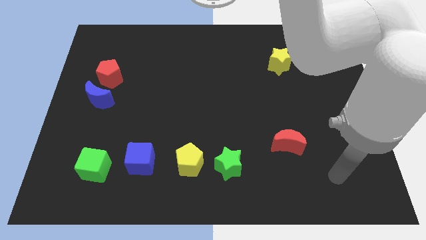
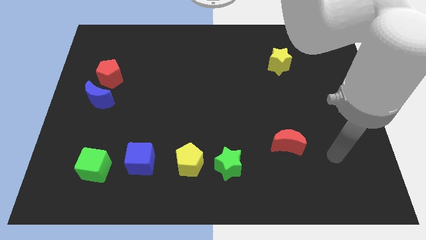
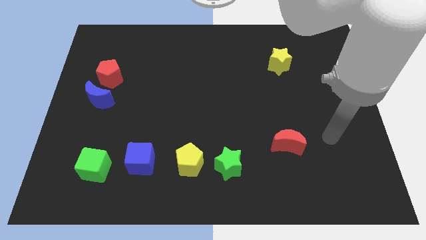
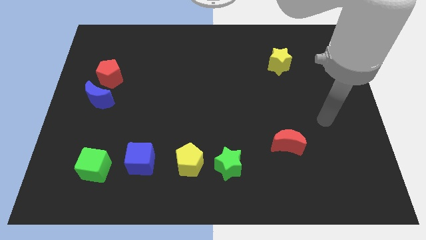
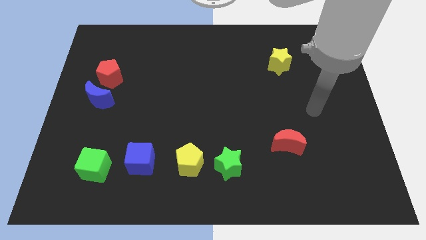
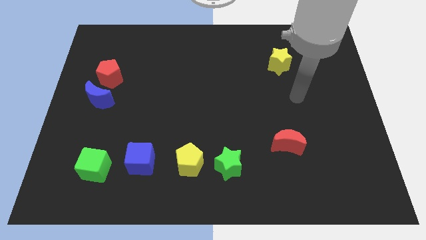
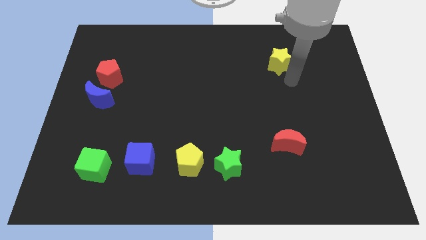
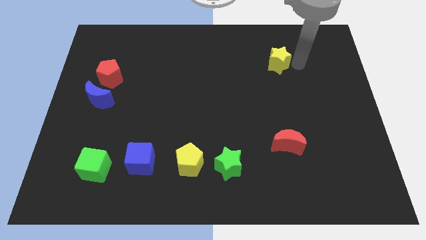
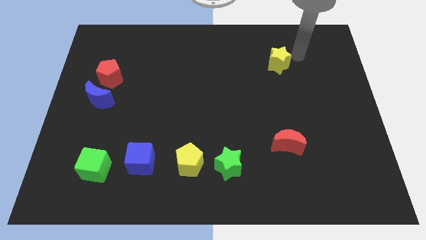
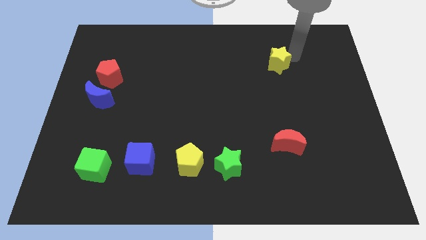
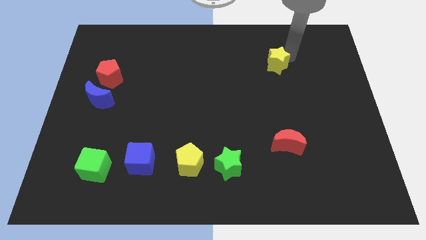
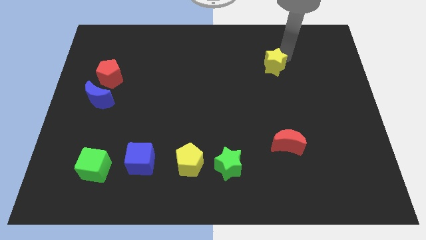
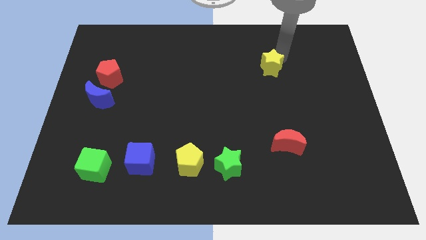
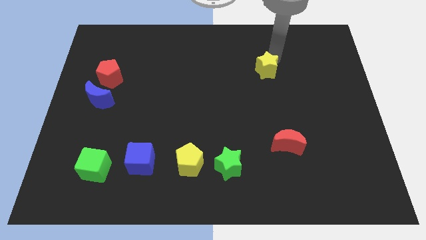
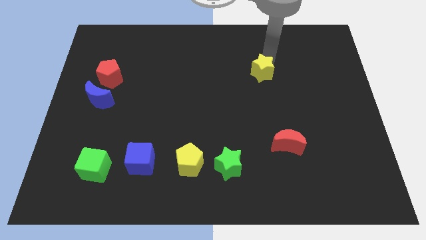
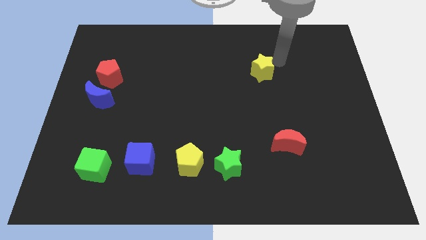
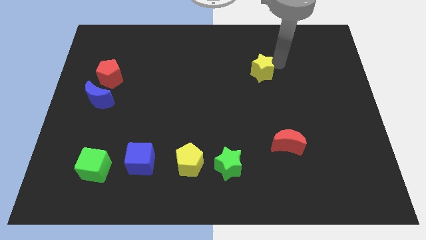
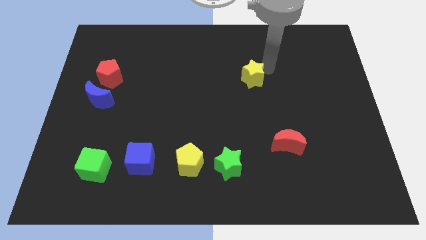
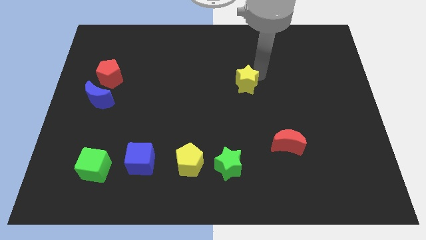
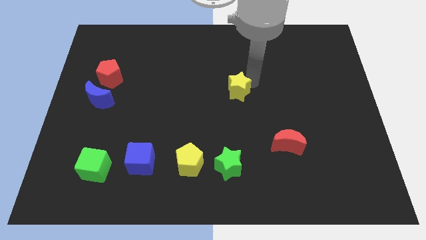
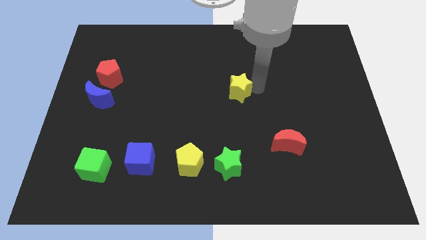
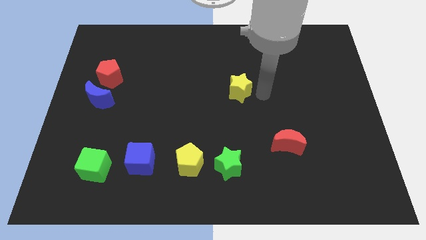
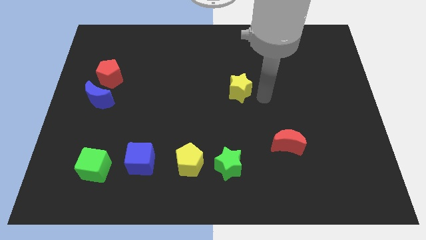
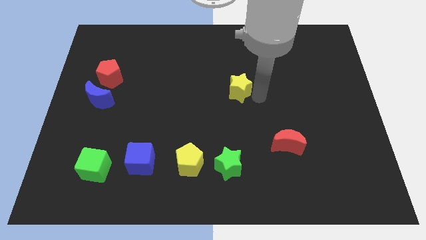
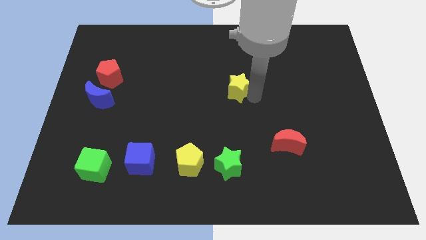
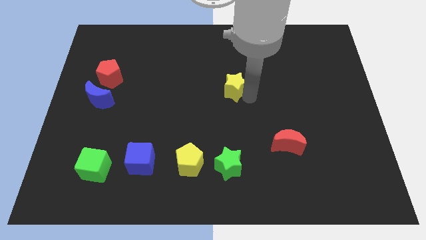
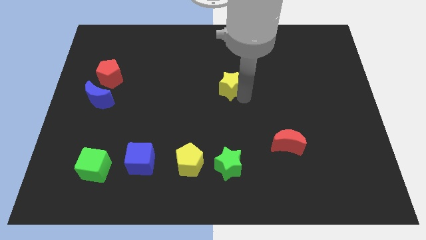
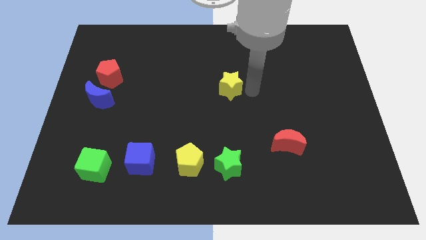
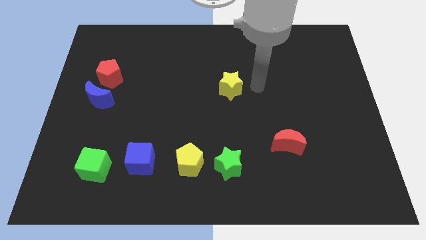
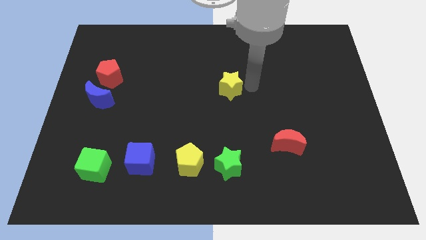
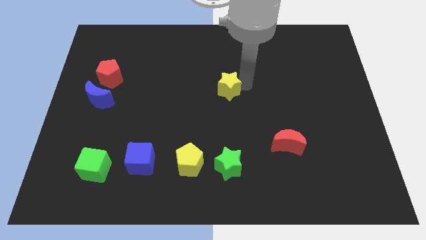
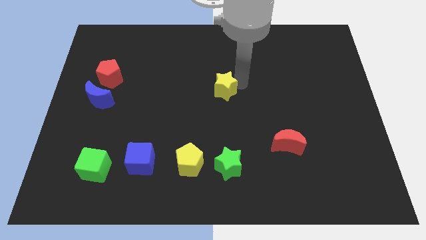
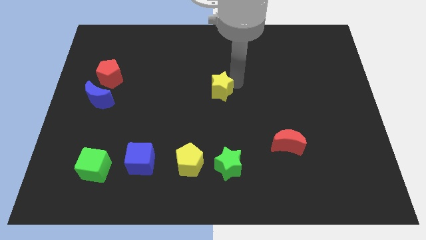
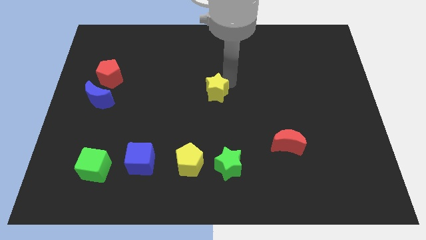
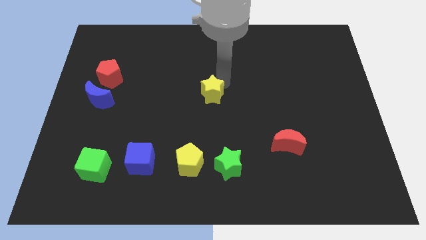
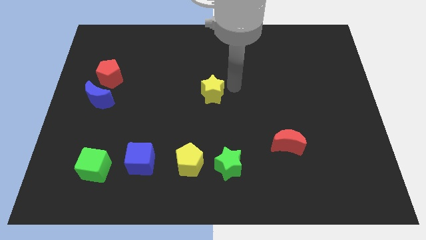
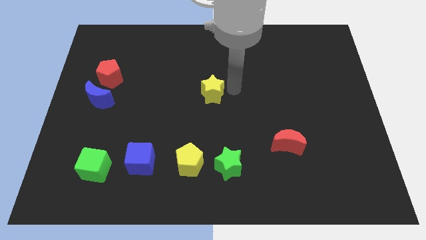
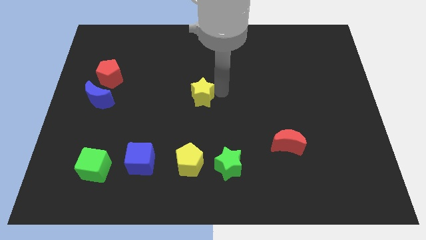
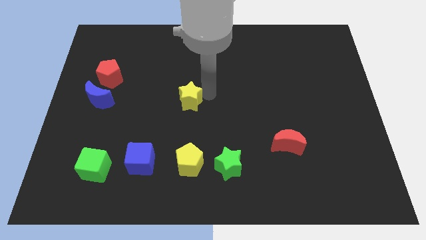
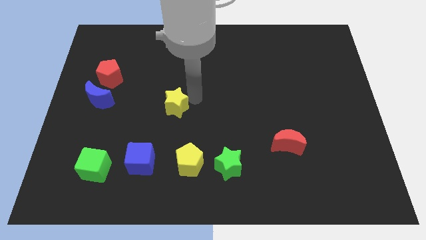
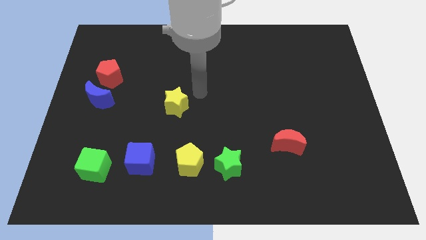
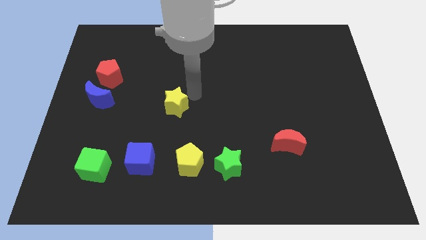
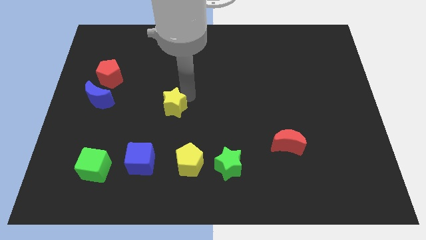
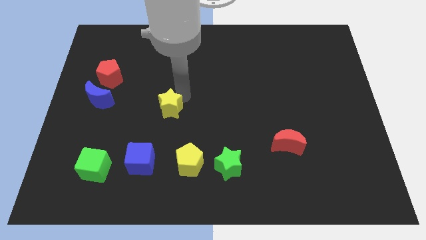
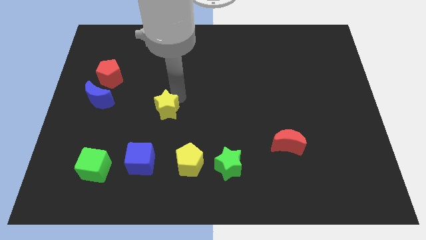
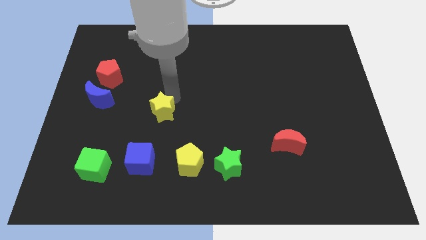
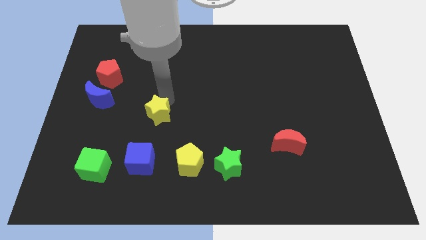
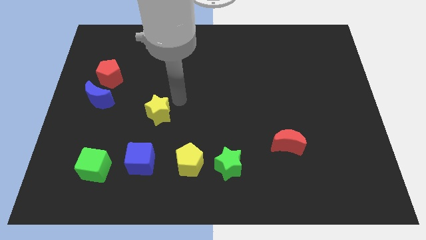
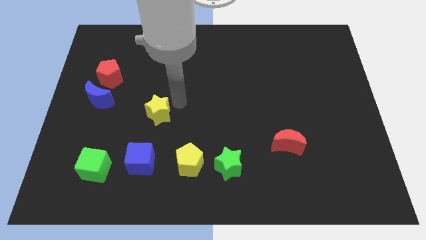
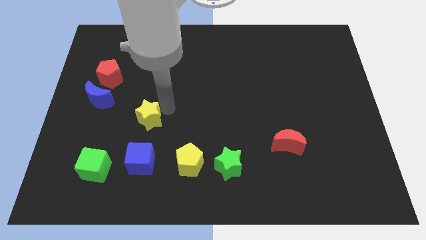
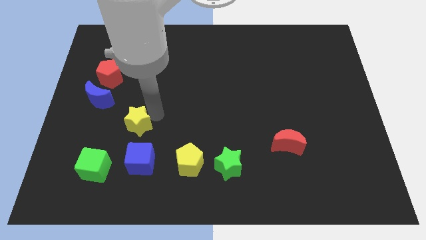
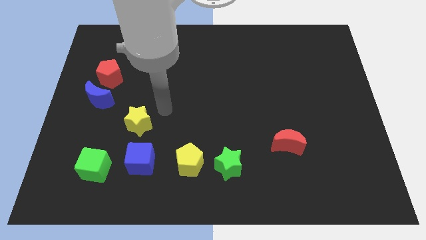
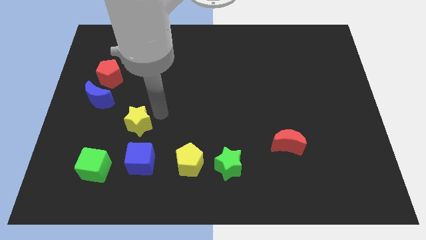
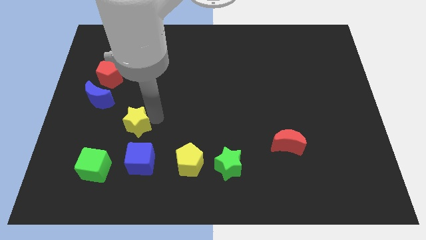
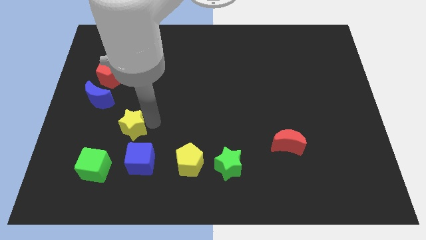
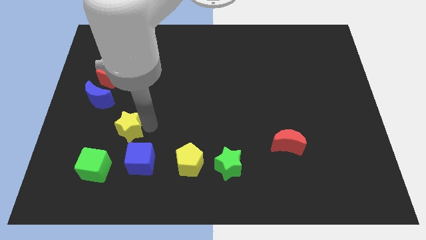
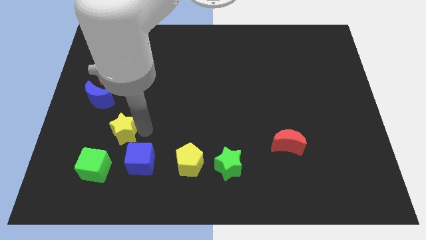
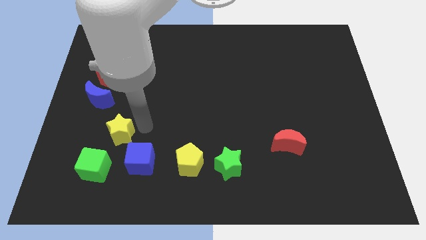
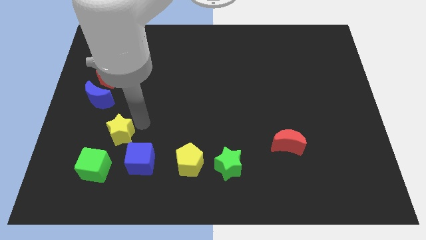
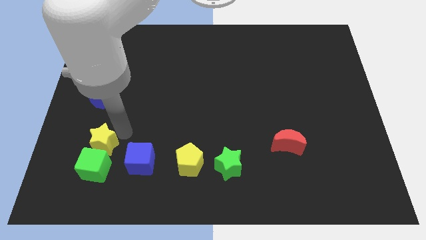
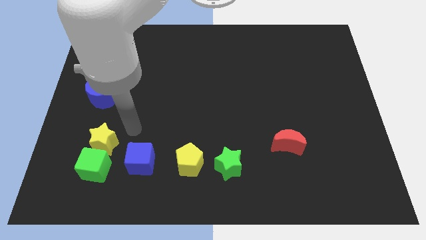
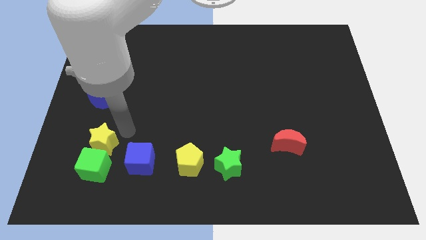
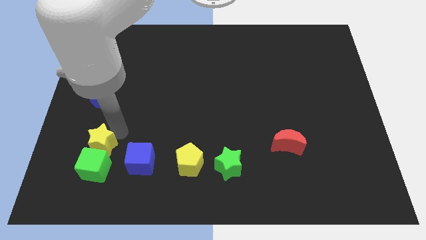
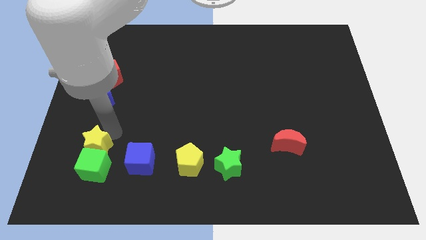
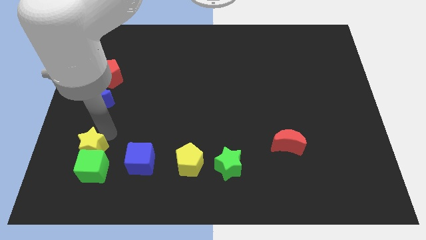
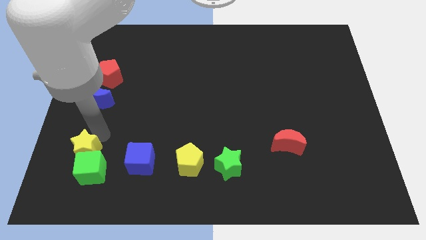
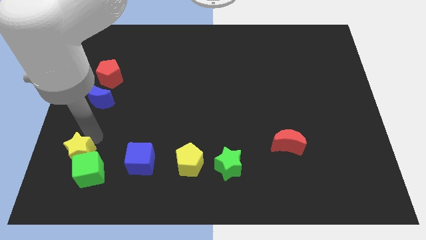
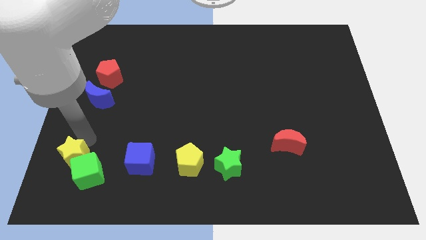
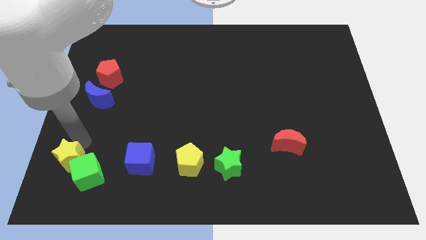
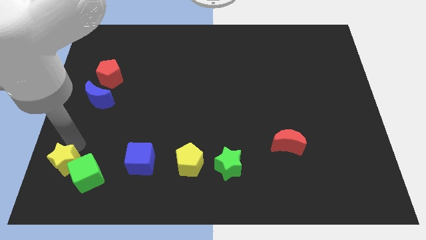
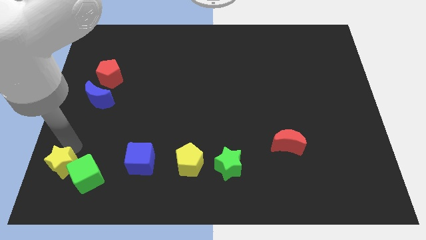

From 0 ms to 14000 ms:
move the yellow star to the lower left corner
